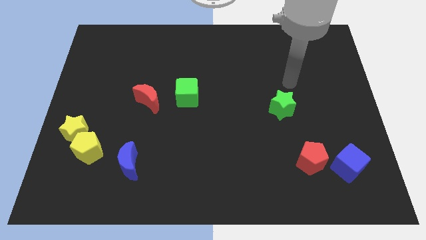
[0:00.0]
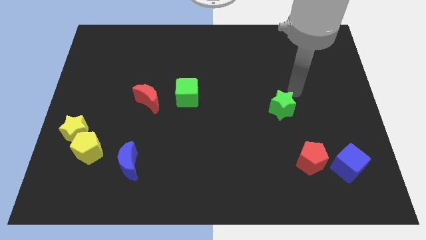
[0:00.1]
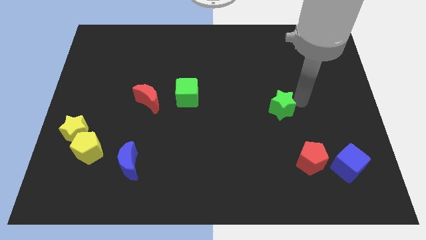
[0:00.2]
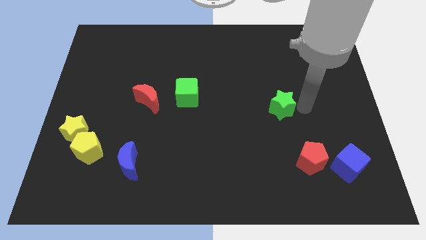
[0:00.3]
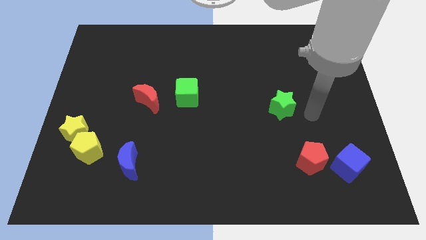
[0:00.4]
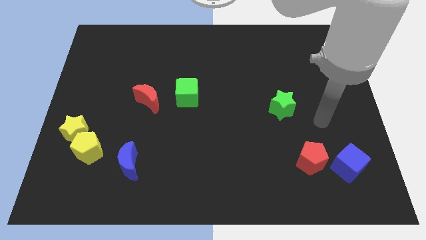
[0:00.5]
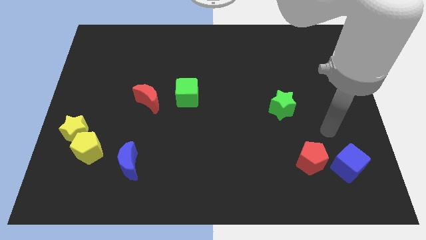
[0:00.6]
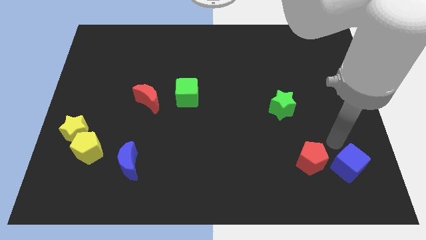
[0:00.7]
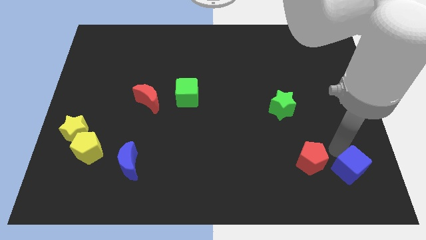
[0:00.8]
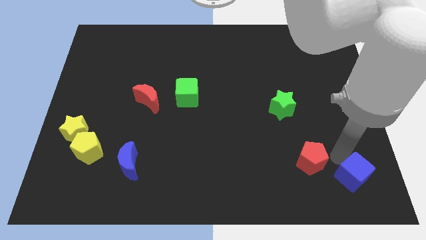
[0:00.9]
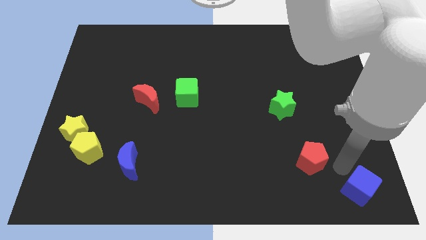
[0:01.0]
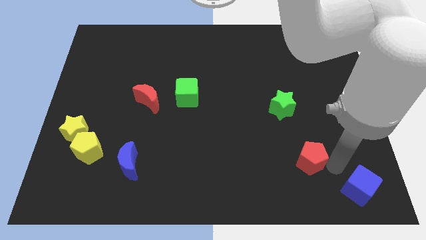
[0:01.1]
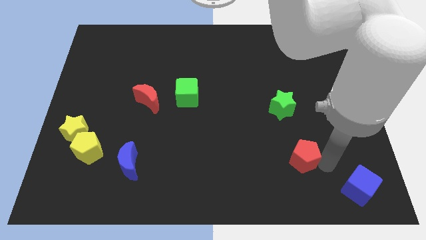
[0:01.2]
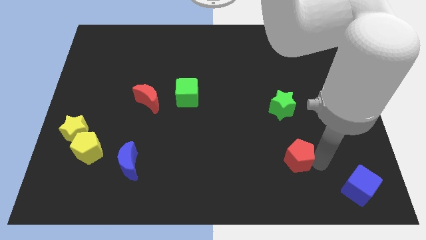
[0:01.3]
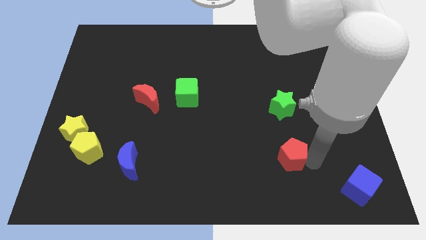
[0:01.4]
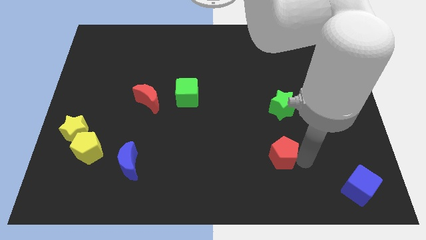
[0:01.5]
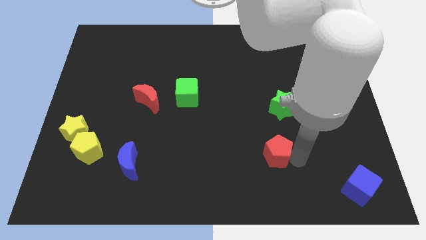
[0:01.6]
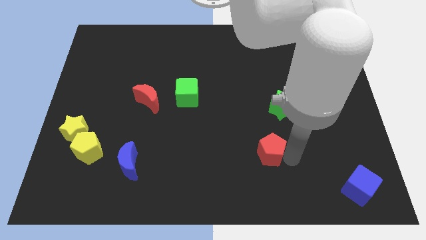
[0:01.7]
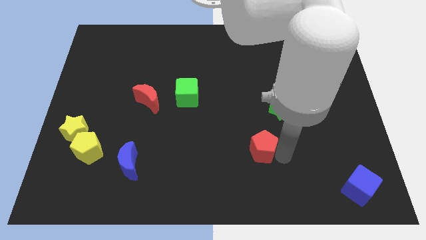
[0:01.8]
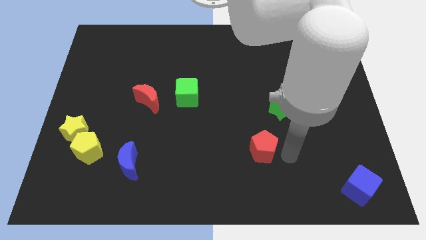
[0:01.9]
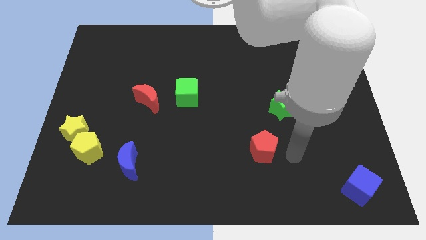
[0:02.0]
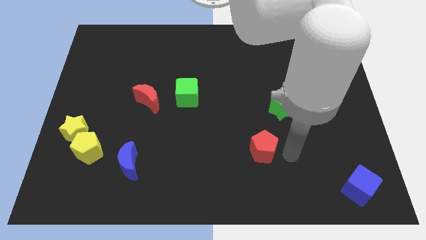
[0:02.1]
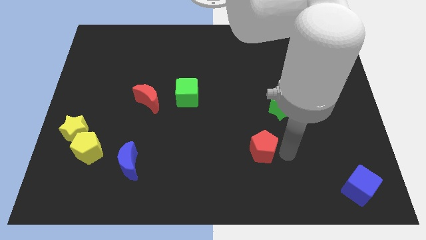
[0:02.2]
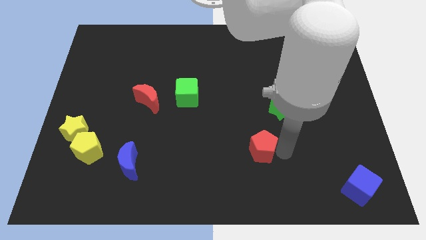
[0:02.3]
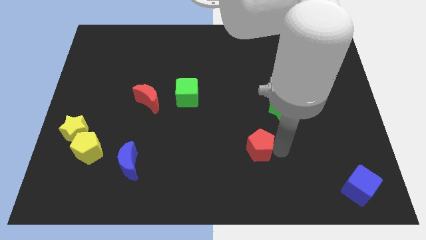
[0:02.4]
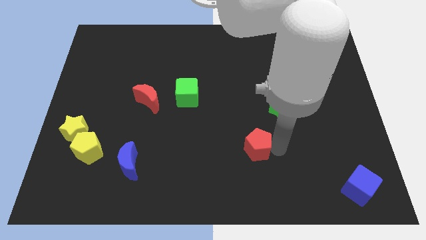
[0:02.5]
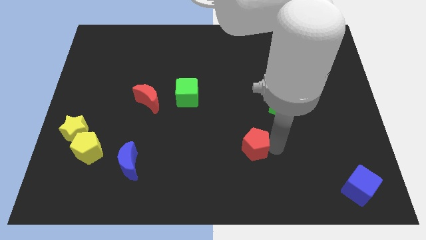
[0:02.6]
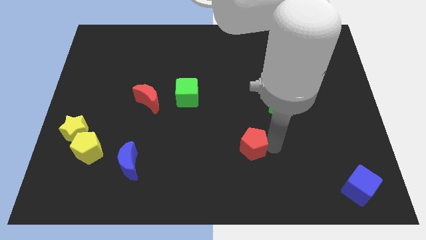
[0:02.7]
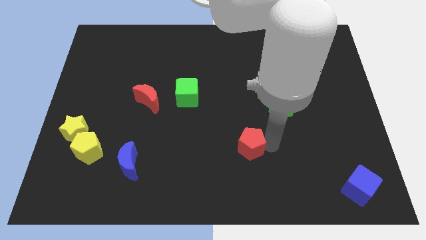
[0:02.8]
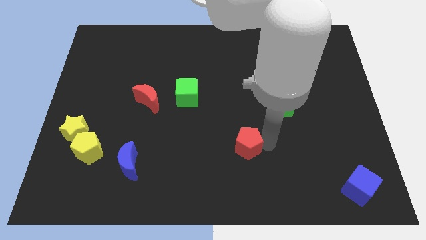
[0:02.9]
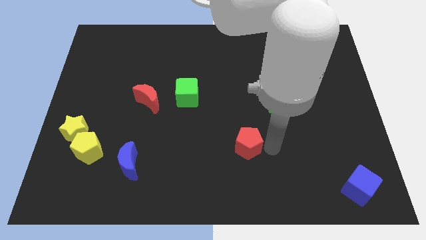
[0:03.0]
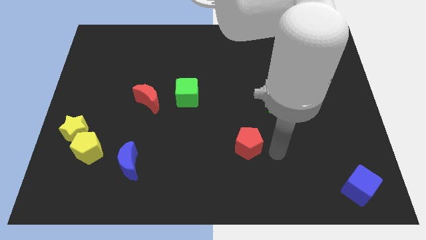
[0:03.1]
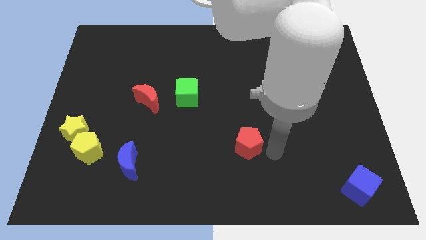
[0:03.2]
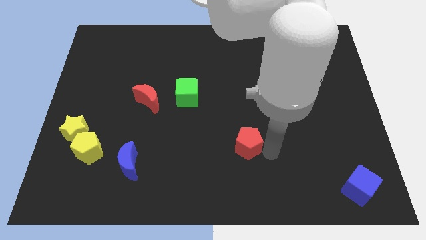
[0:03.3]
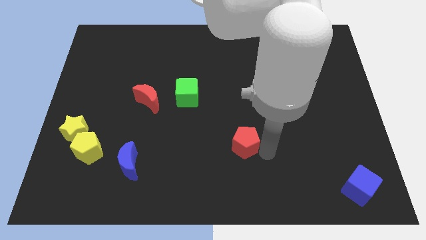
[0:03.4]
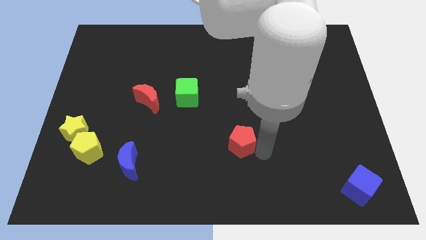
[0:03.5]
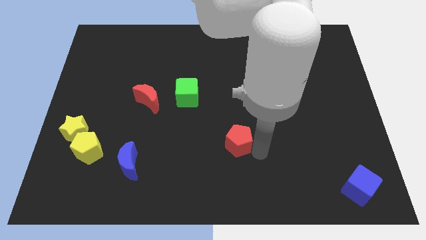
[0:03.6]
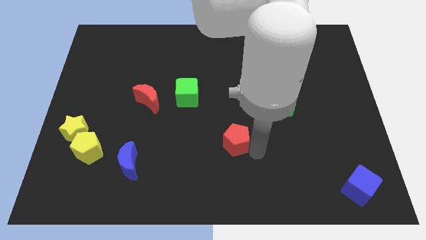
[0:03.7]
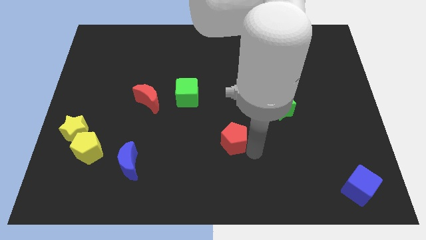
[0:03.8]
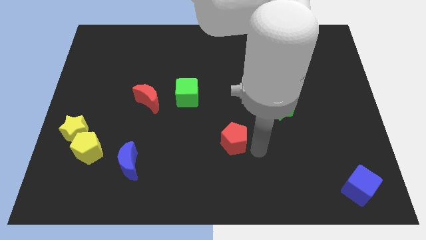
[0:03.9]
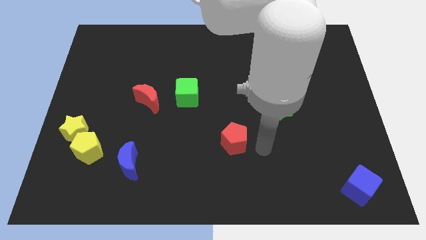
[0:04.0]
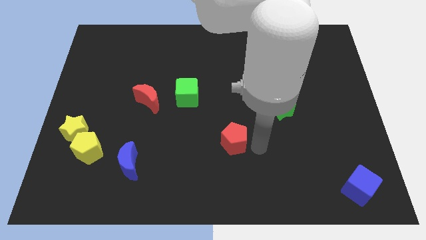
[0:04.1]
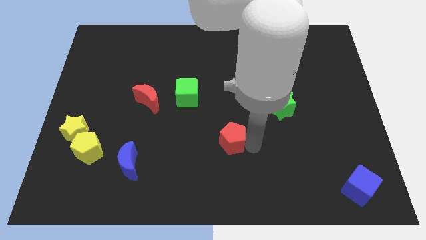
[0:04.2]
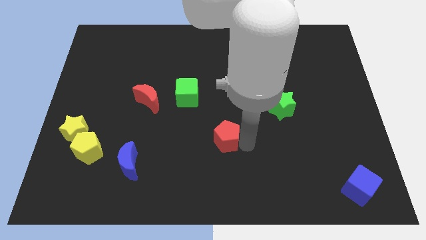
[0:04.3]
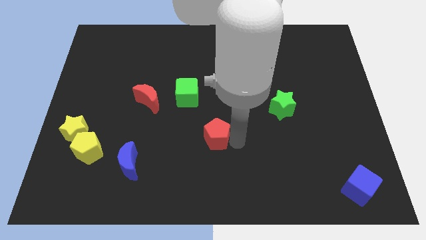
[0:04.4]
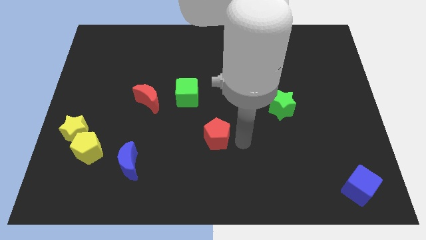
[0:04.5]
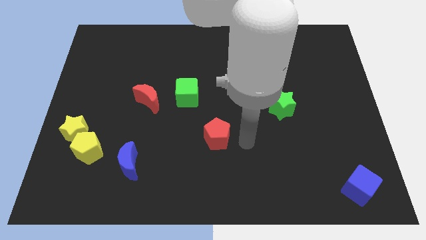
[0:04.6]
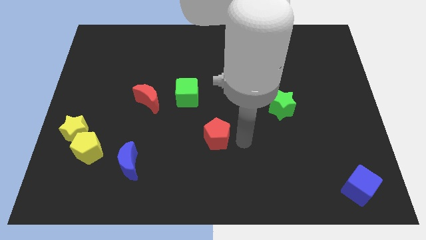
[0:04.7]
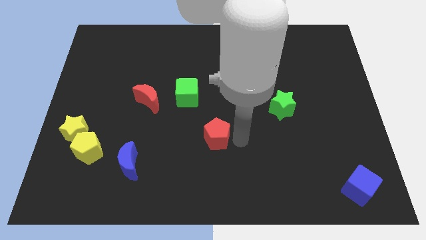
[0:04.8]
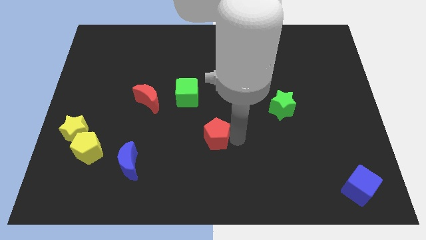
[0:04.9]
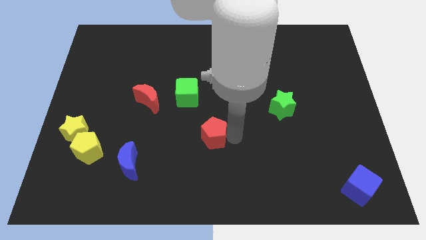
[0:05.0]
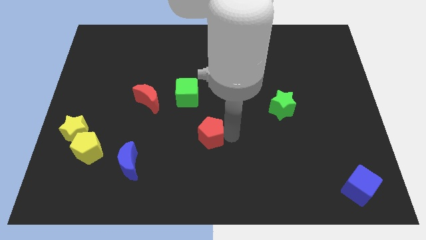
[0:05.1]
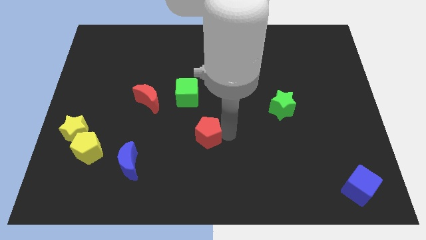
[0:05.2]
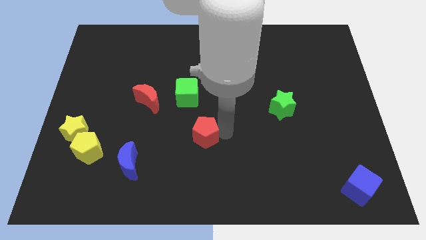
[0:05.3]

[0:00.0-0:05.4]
push the red pentagon to the bottom side of the green cube

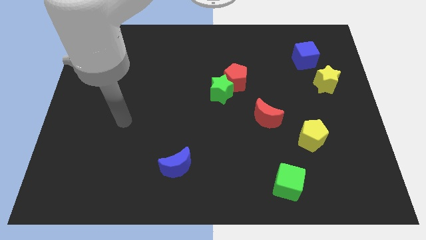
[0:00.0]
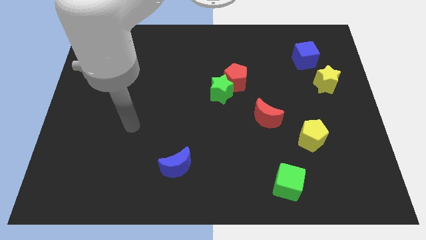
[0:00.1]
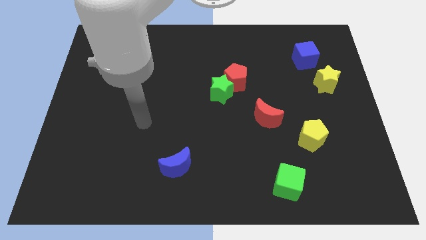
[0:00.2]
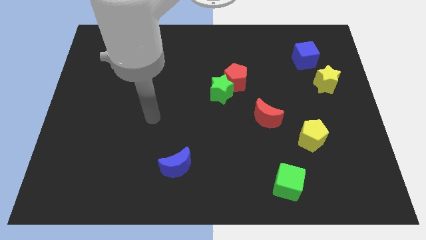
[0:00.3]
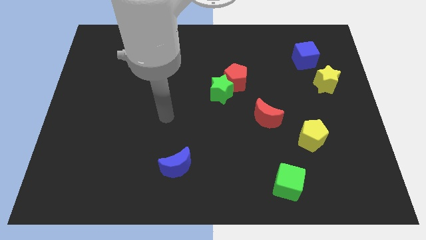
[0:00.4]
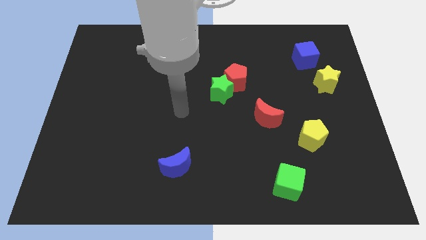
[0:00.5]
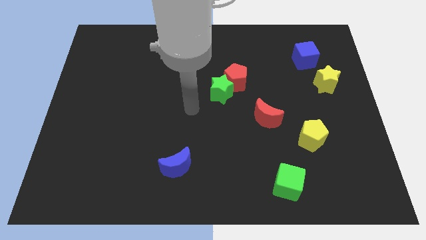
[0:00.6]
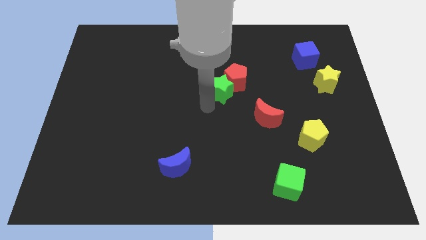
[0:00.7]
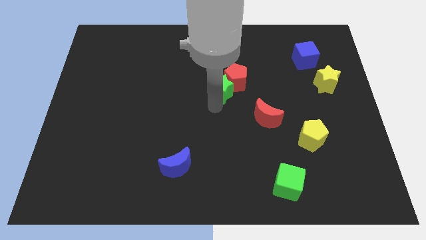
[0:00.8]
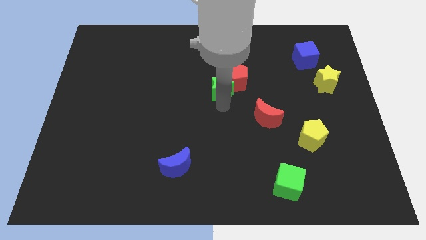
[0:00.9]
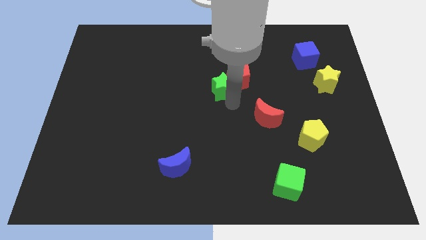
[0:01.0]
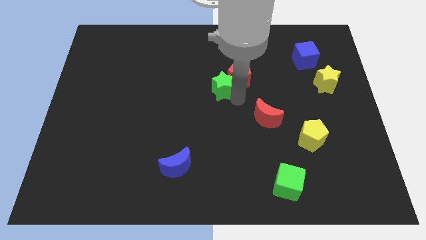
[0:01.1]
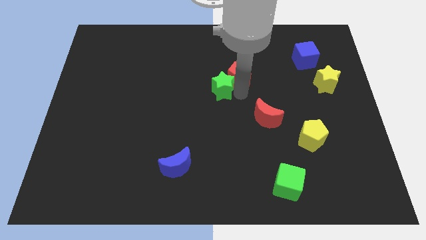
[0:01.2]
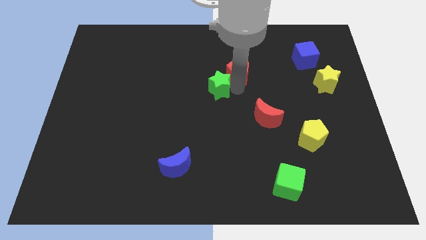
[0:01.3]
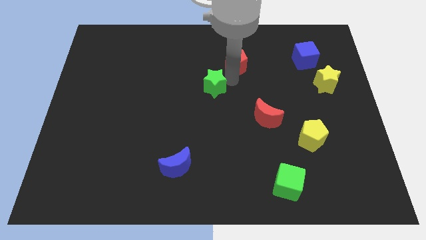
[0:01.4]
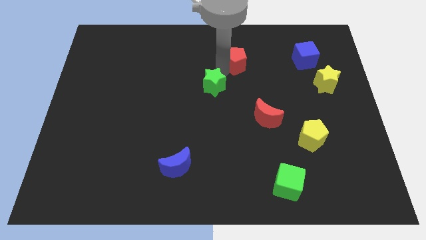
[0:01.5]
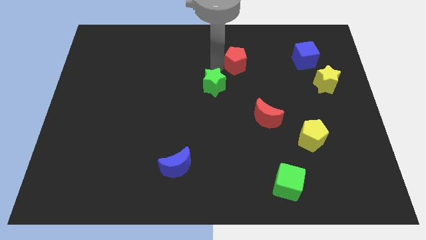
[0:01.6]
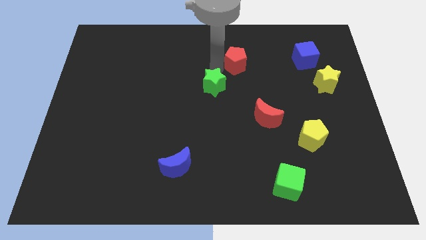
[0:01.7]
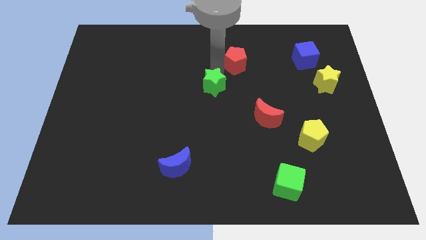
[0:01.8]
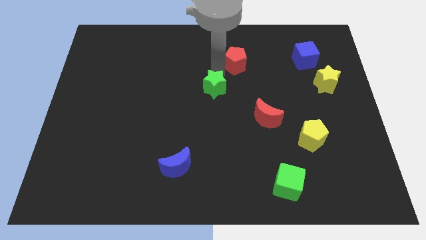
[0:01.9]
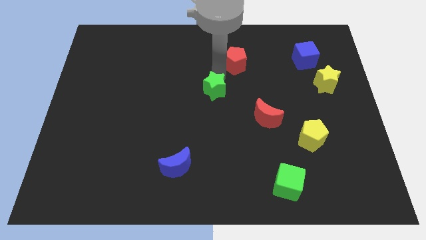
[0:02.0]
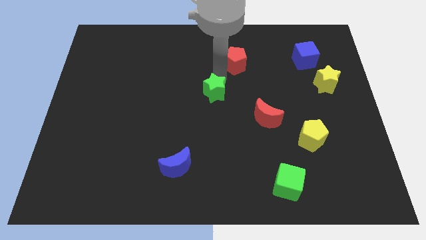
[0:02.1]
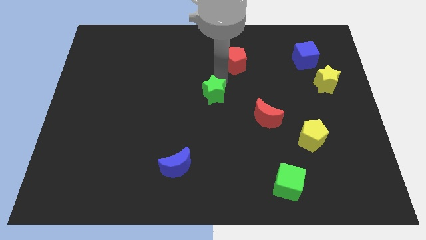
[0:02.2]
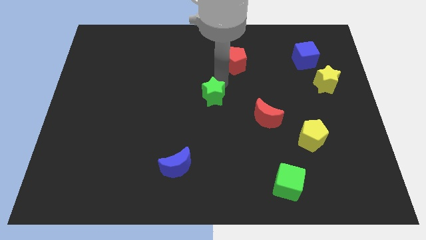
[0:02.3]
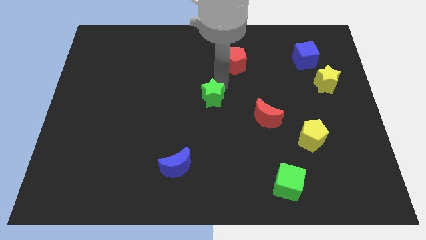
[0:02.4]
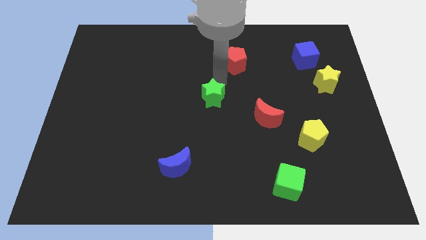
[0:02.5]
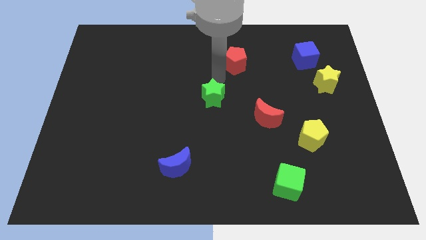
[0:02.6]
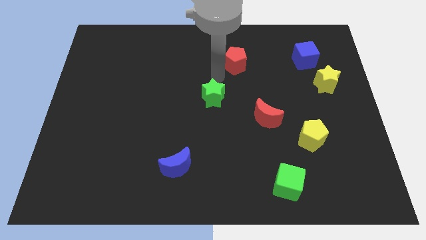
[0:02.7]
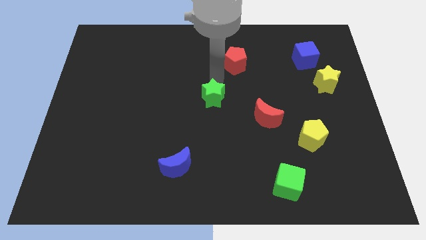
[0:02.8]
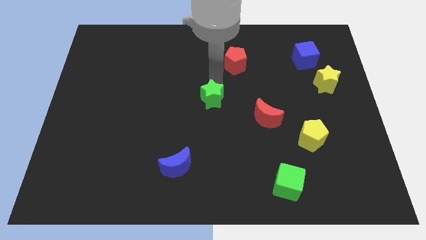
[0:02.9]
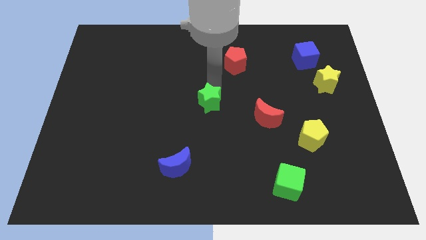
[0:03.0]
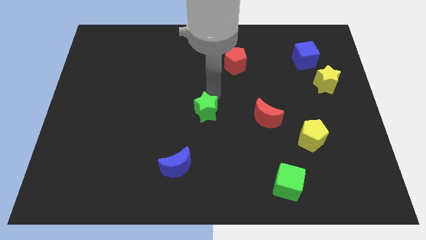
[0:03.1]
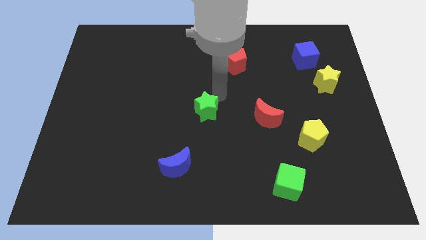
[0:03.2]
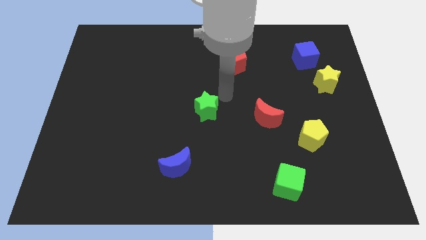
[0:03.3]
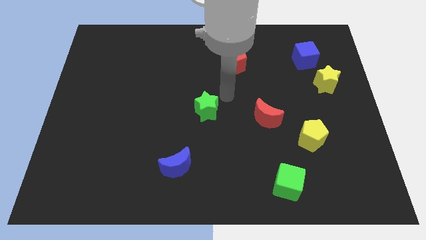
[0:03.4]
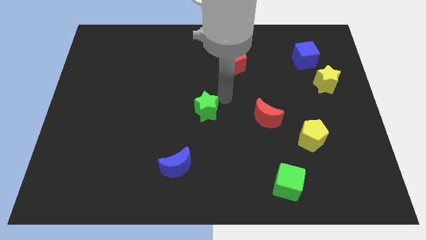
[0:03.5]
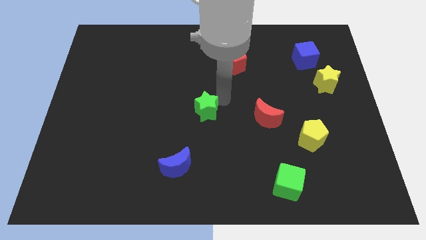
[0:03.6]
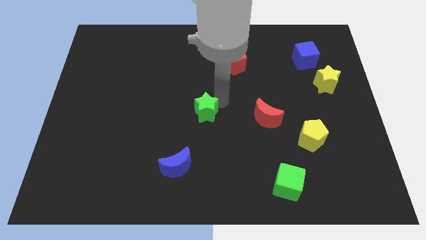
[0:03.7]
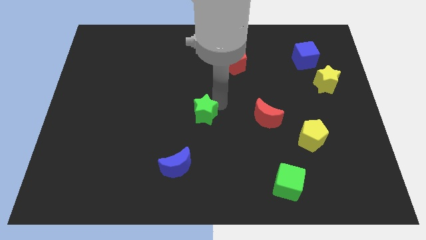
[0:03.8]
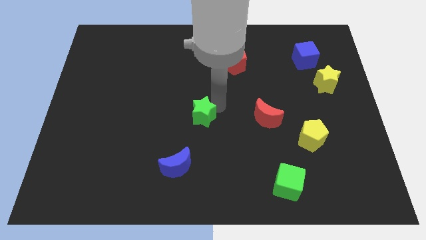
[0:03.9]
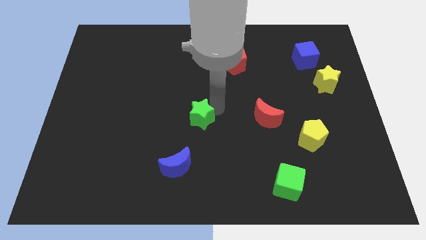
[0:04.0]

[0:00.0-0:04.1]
put the green star to the top side of the blue moon
